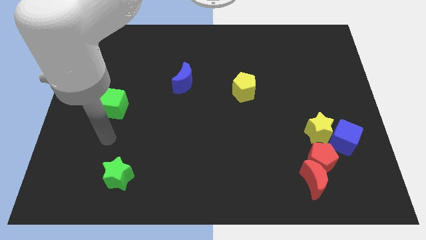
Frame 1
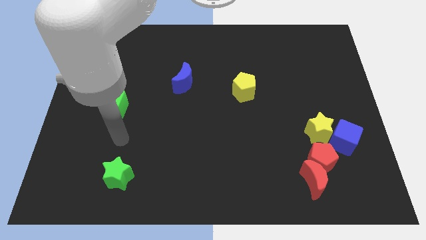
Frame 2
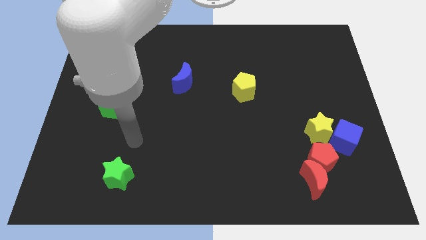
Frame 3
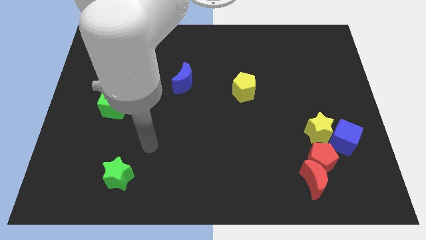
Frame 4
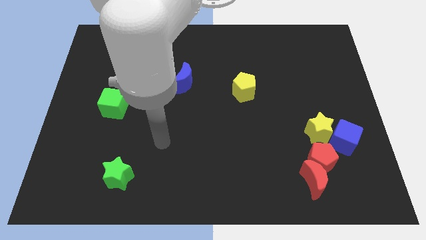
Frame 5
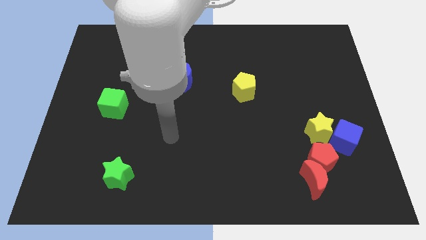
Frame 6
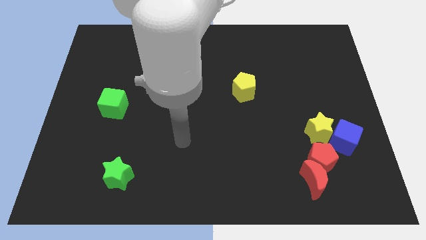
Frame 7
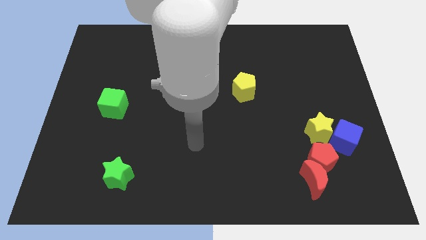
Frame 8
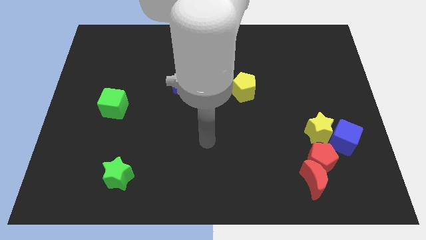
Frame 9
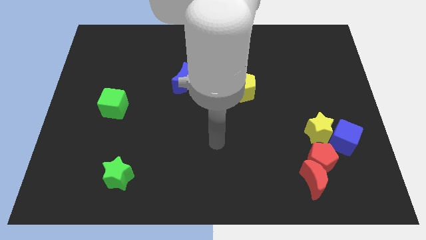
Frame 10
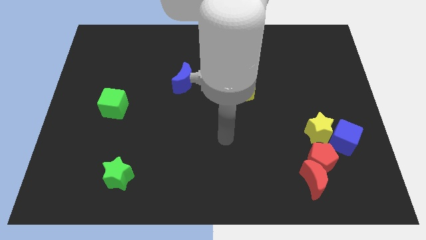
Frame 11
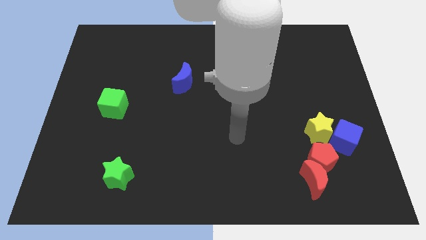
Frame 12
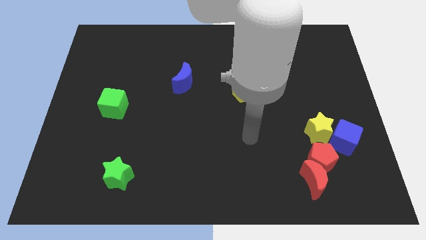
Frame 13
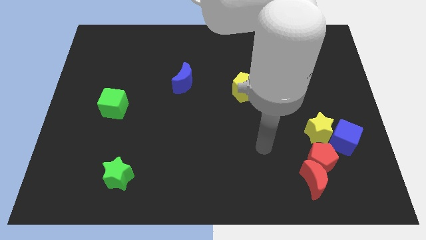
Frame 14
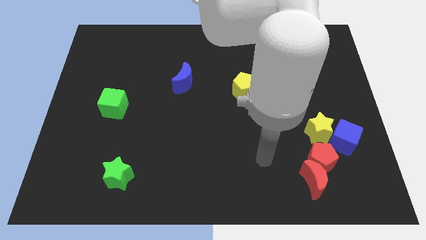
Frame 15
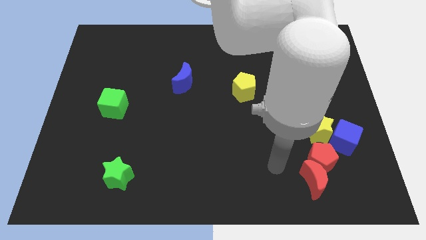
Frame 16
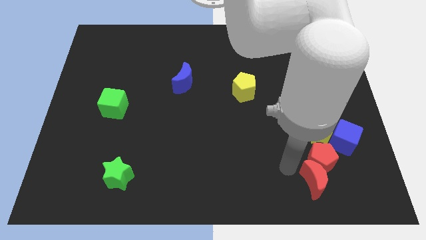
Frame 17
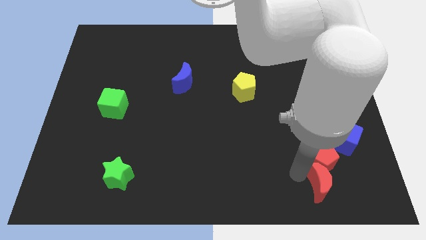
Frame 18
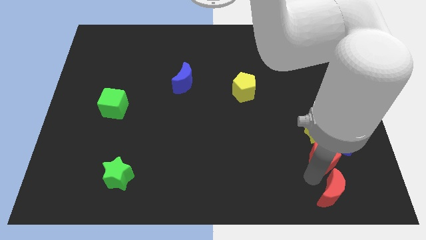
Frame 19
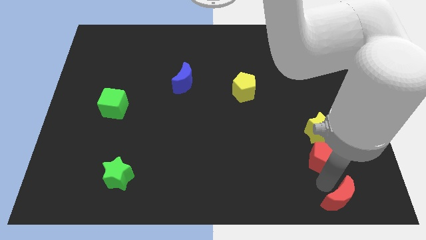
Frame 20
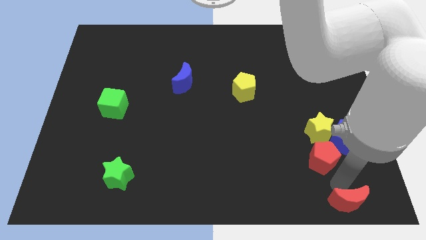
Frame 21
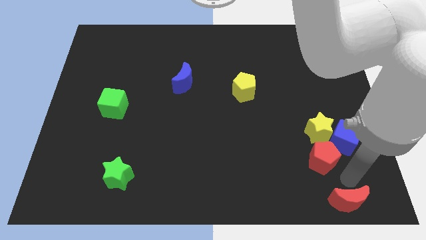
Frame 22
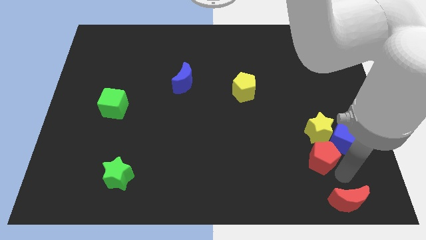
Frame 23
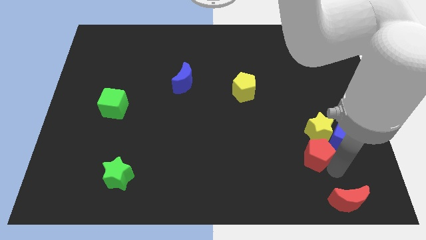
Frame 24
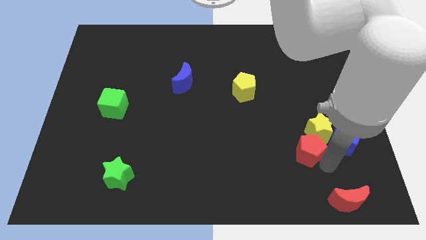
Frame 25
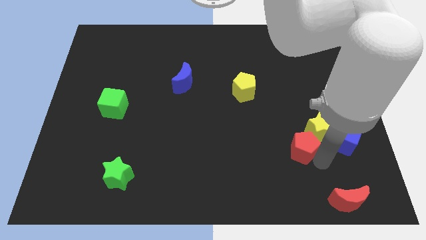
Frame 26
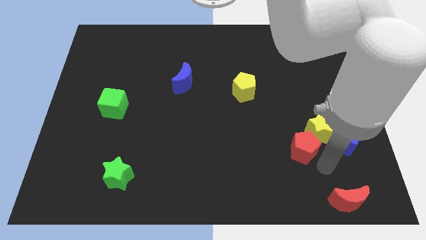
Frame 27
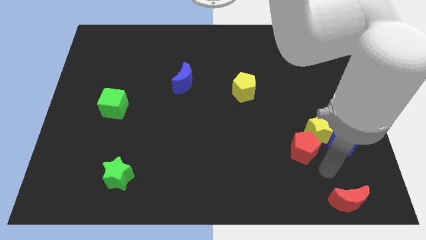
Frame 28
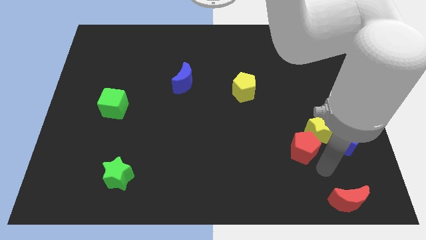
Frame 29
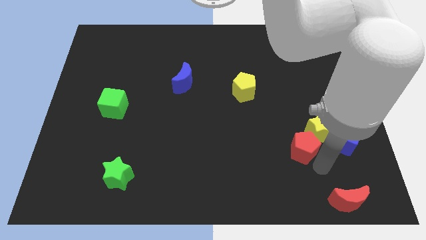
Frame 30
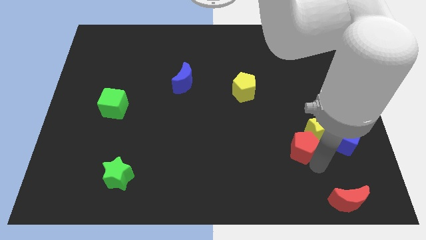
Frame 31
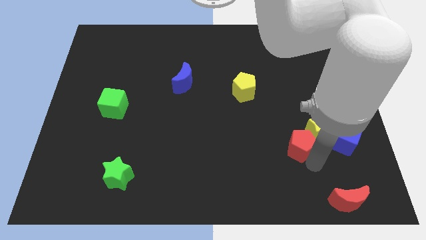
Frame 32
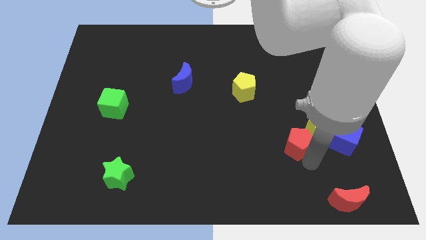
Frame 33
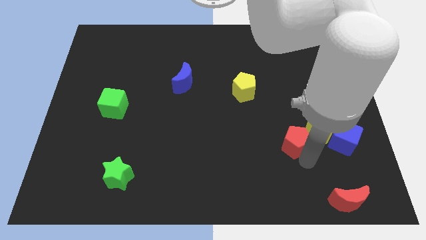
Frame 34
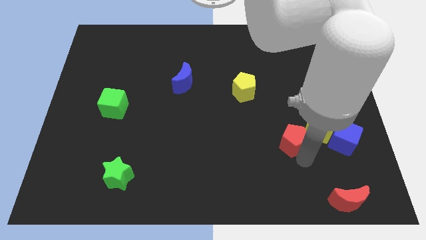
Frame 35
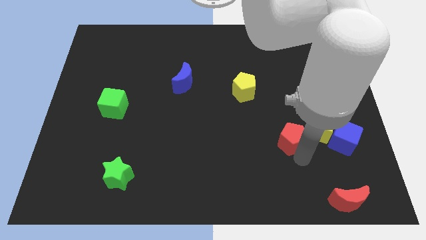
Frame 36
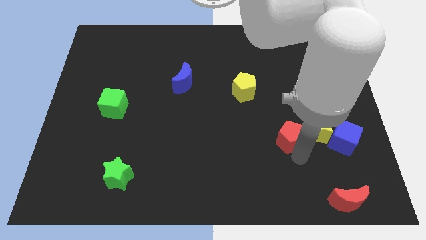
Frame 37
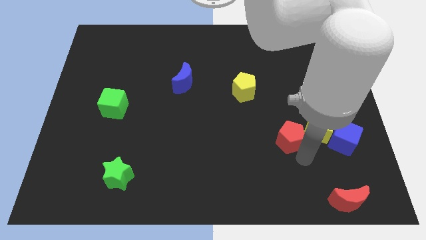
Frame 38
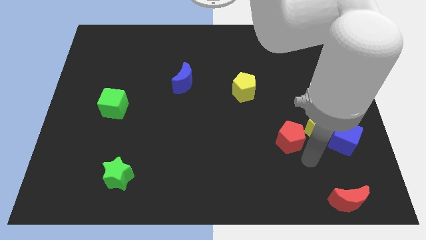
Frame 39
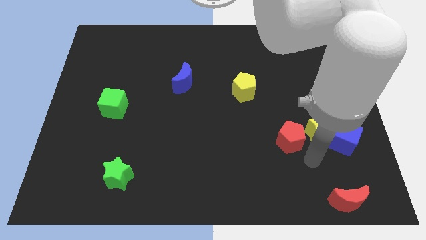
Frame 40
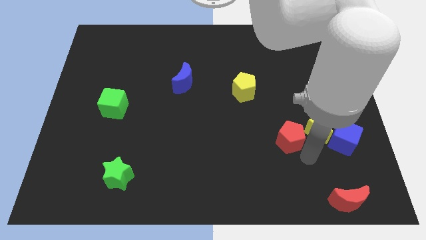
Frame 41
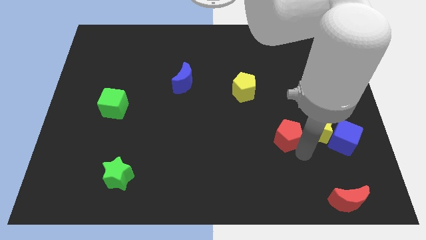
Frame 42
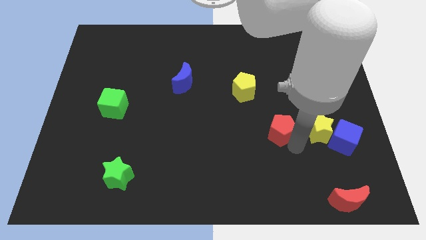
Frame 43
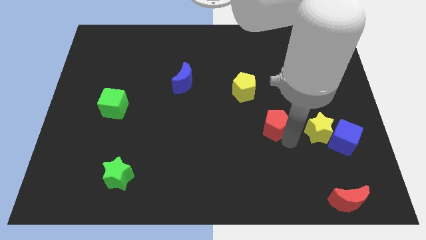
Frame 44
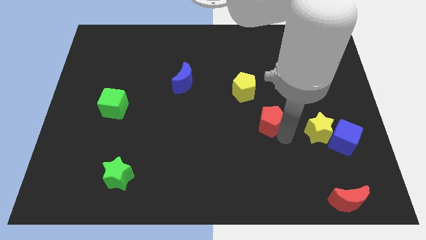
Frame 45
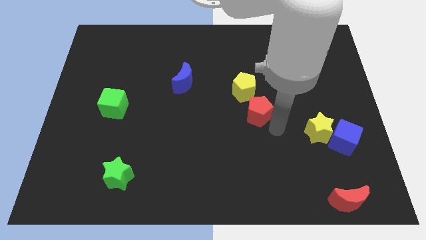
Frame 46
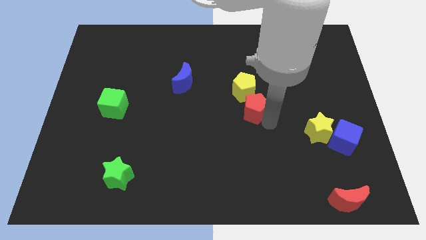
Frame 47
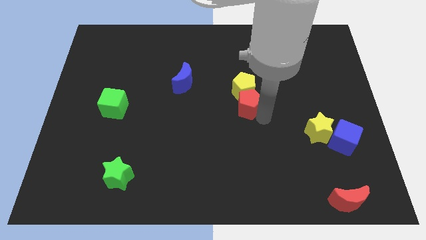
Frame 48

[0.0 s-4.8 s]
move the red pentagon diagonally upwards and to the left

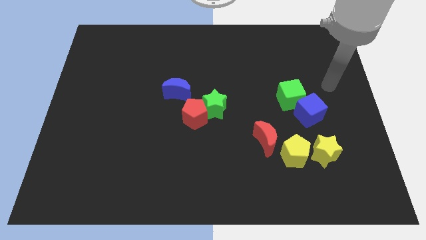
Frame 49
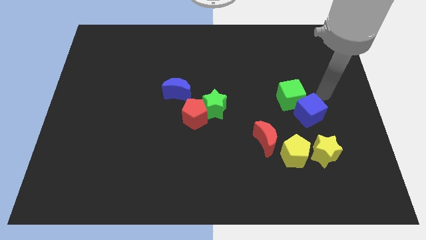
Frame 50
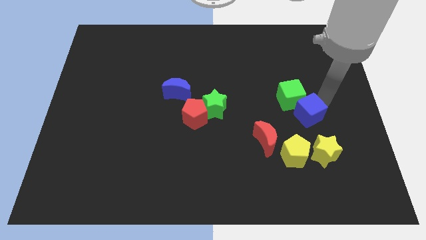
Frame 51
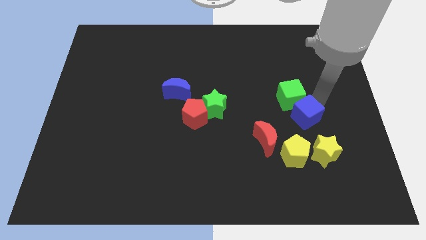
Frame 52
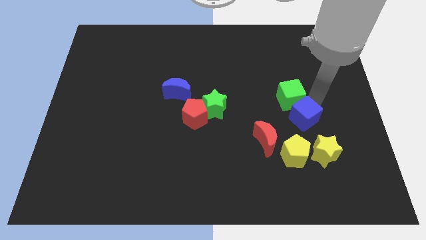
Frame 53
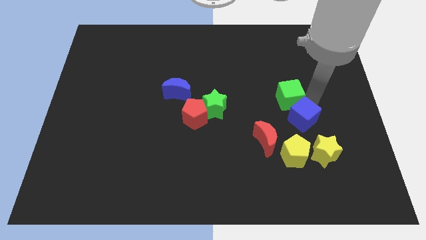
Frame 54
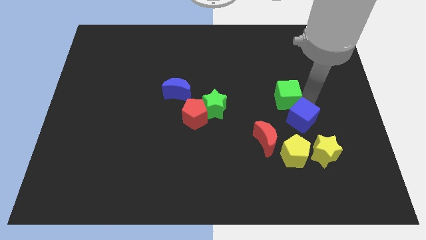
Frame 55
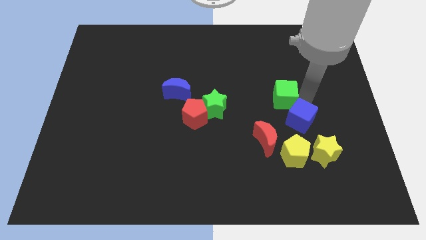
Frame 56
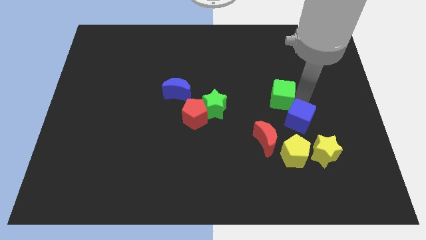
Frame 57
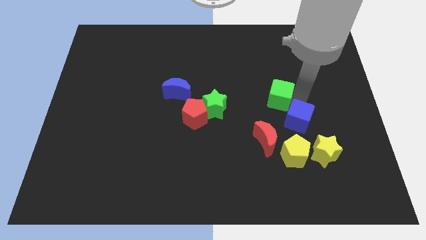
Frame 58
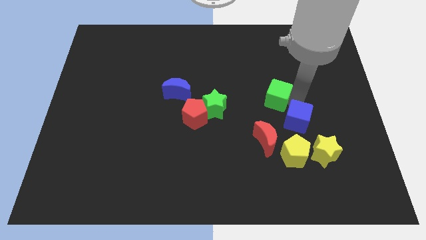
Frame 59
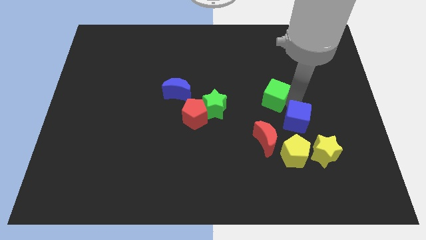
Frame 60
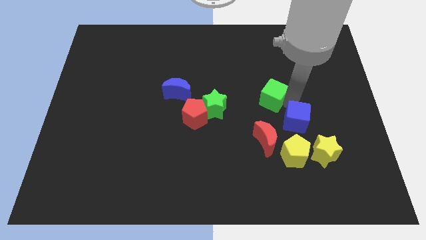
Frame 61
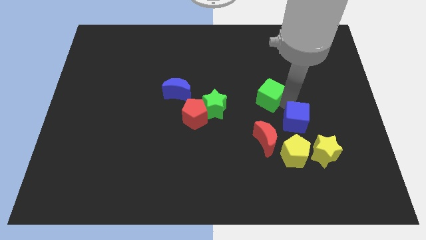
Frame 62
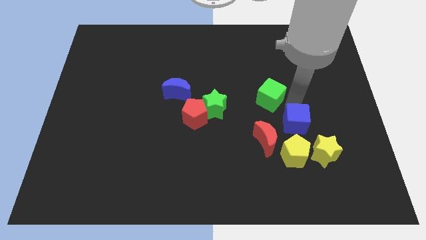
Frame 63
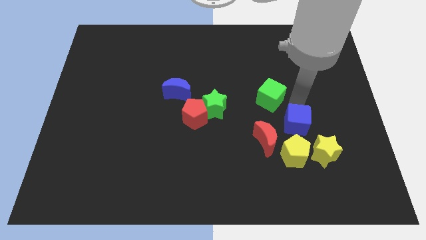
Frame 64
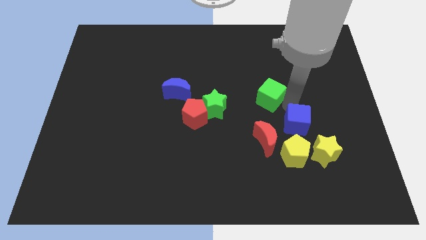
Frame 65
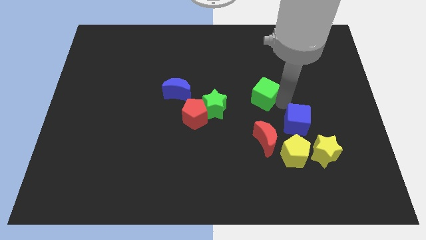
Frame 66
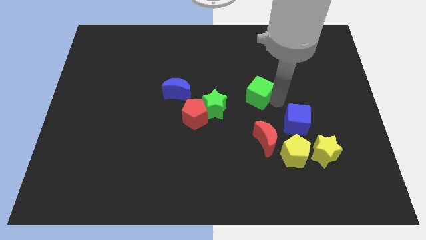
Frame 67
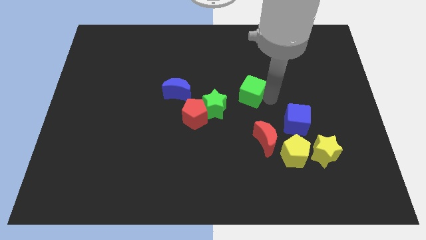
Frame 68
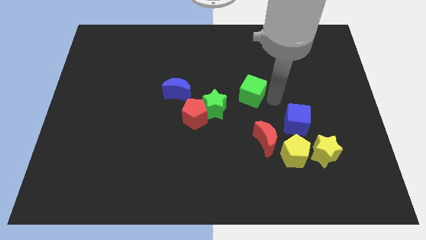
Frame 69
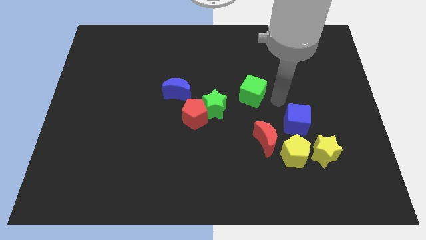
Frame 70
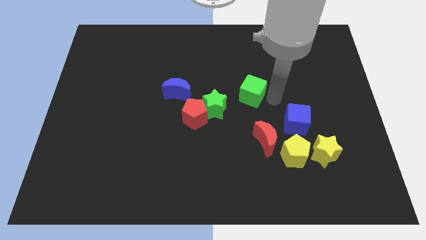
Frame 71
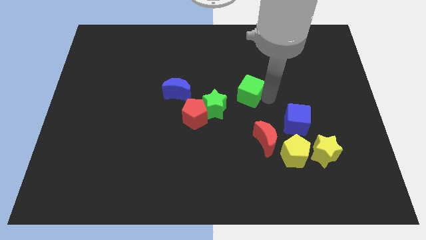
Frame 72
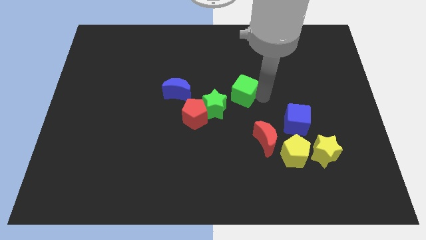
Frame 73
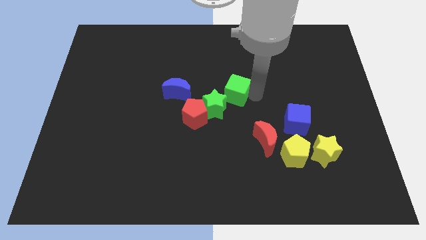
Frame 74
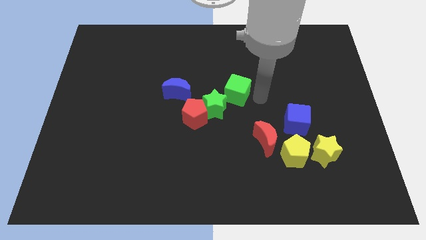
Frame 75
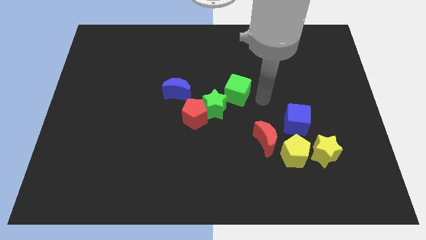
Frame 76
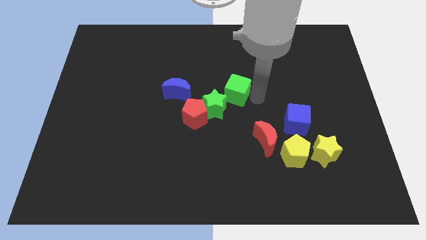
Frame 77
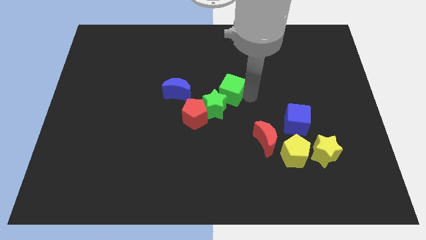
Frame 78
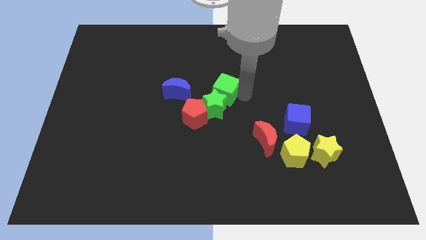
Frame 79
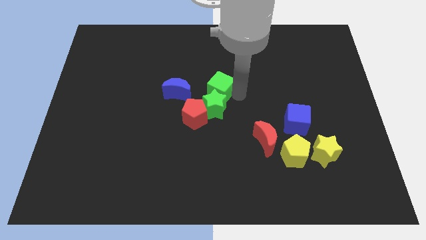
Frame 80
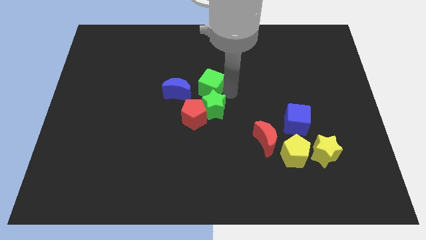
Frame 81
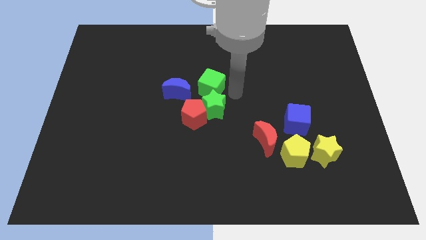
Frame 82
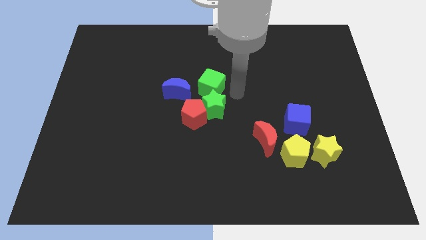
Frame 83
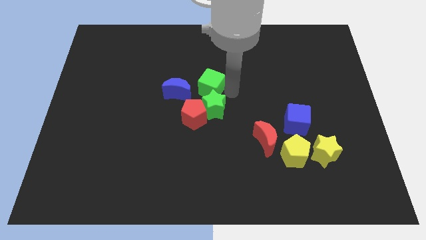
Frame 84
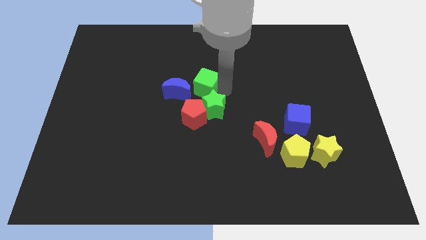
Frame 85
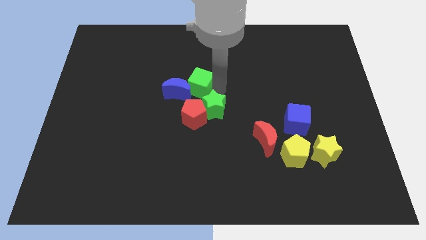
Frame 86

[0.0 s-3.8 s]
push the green cube to the left
